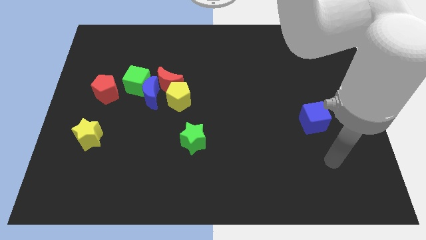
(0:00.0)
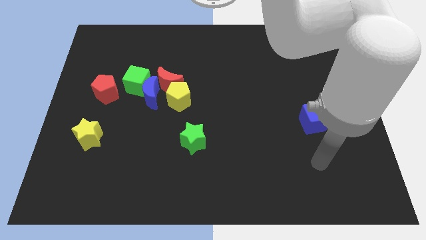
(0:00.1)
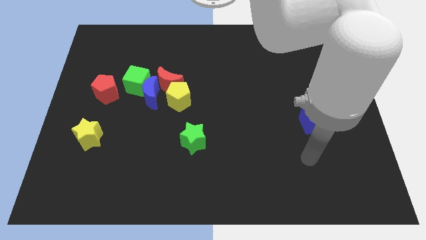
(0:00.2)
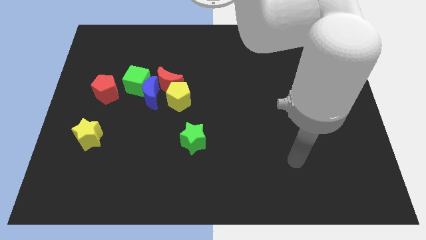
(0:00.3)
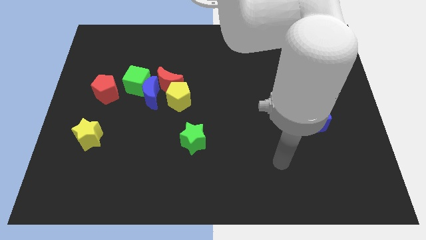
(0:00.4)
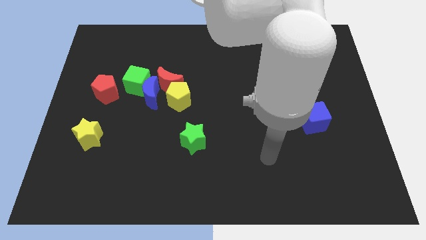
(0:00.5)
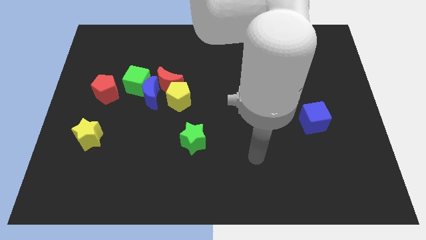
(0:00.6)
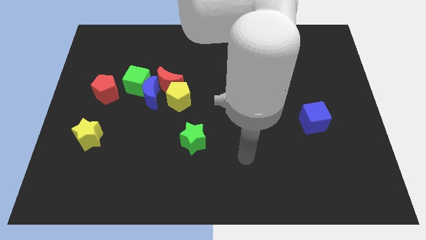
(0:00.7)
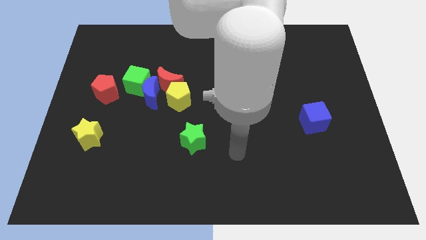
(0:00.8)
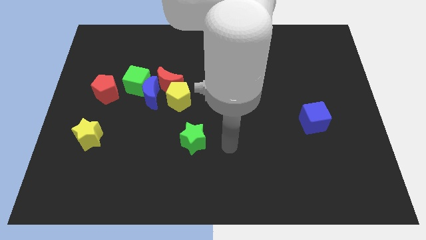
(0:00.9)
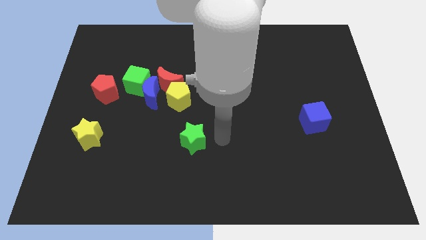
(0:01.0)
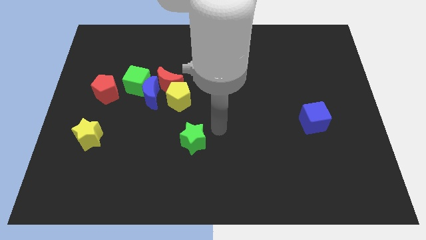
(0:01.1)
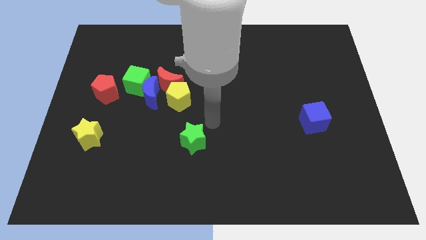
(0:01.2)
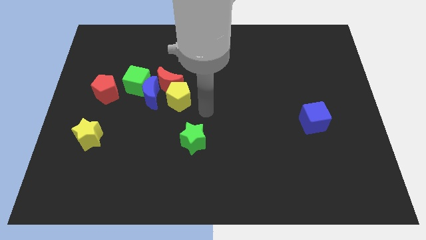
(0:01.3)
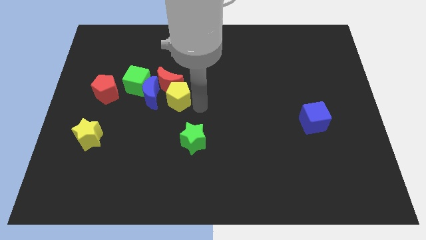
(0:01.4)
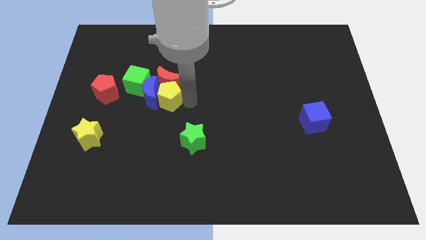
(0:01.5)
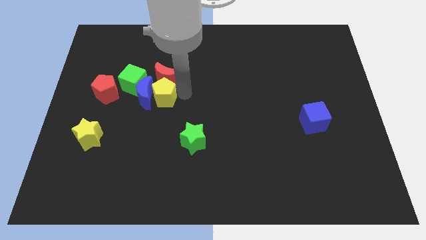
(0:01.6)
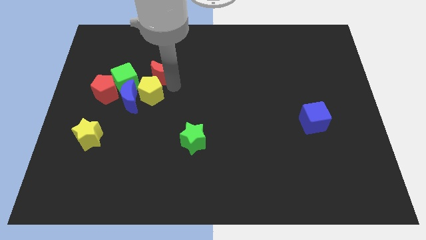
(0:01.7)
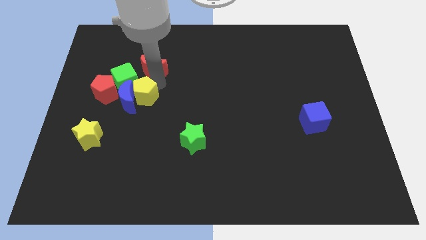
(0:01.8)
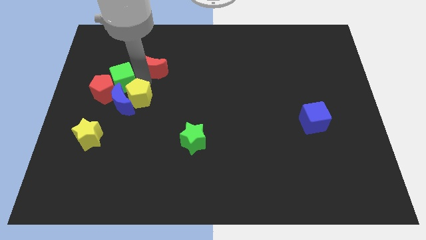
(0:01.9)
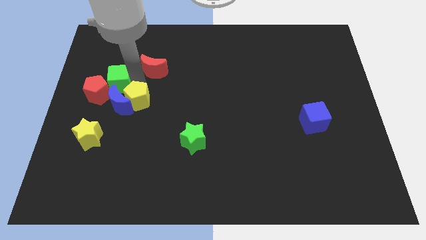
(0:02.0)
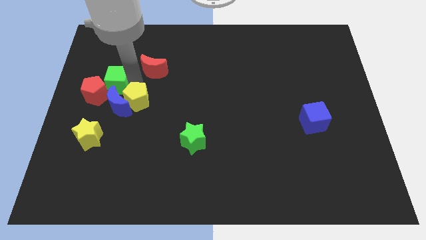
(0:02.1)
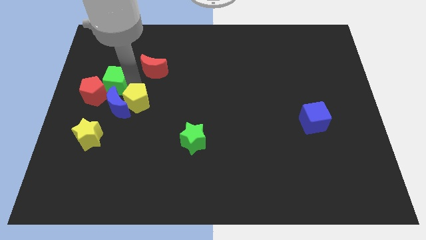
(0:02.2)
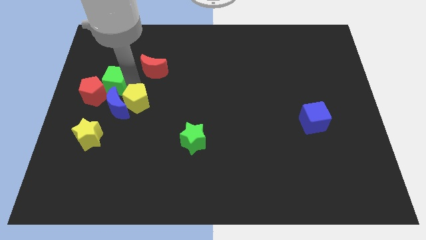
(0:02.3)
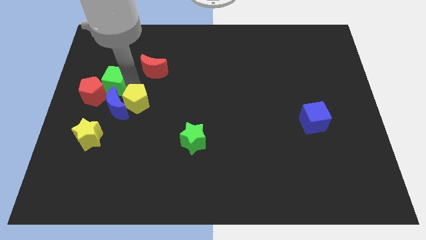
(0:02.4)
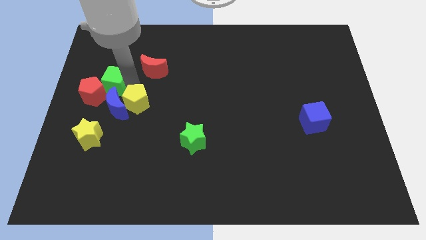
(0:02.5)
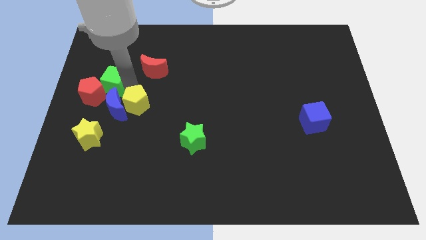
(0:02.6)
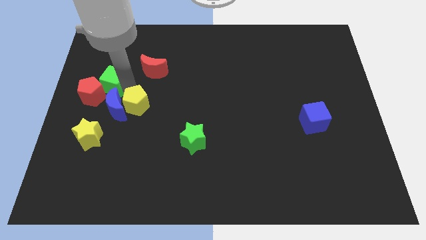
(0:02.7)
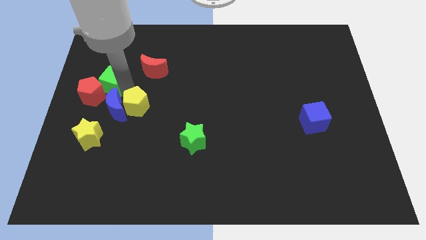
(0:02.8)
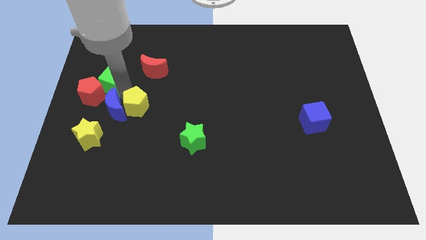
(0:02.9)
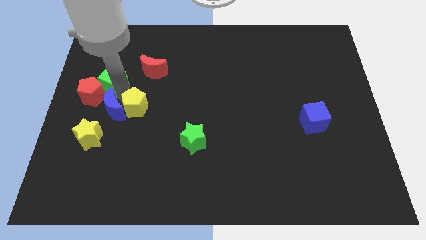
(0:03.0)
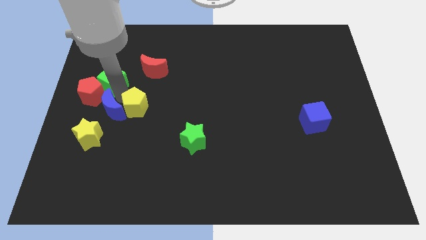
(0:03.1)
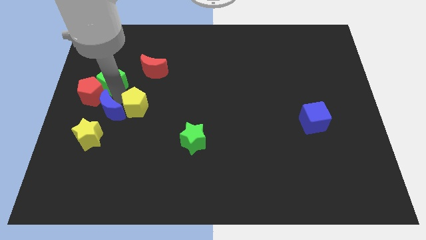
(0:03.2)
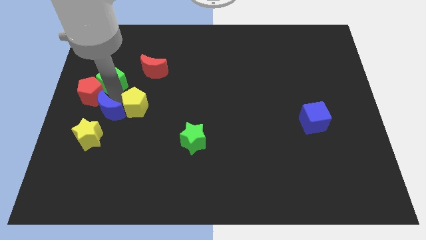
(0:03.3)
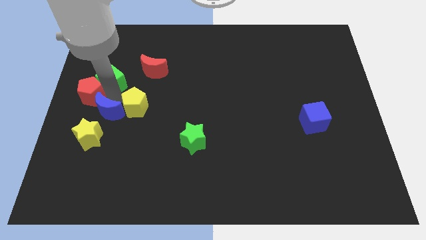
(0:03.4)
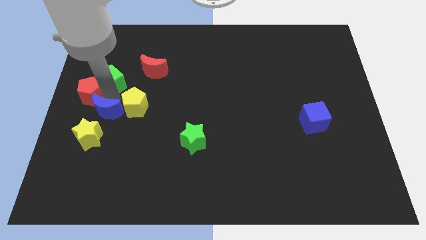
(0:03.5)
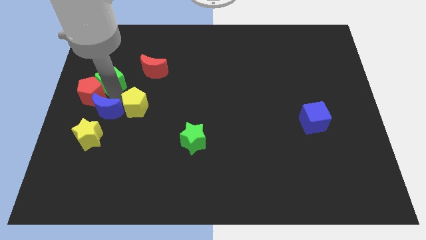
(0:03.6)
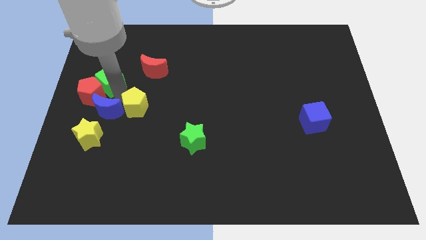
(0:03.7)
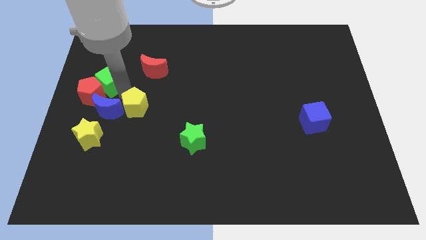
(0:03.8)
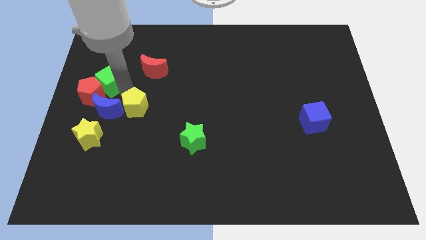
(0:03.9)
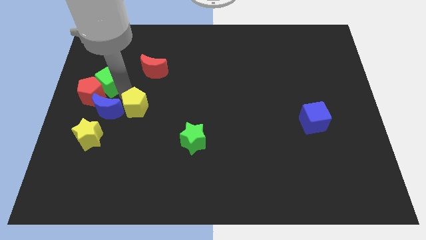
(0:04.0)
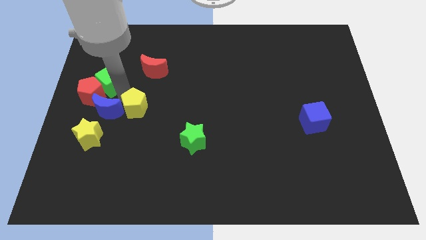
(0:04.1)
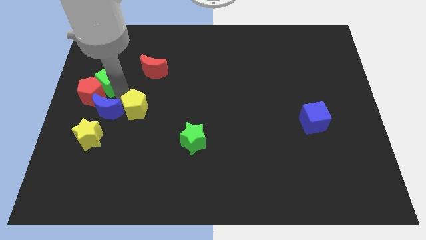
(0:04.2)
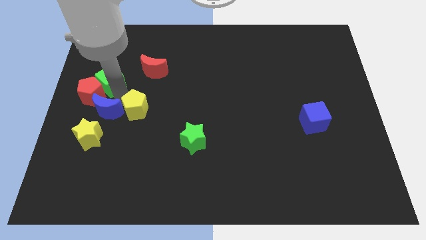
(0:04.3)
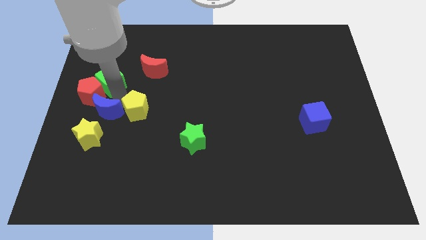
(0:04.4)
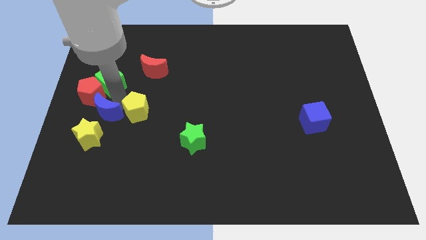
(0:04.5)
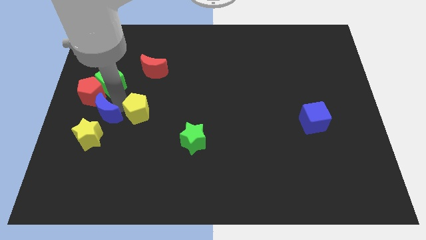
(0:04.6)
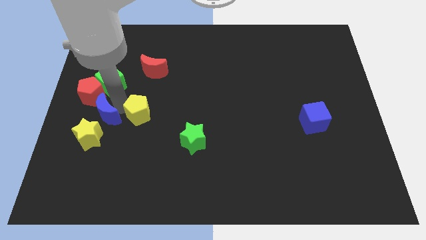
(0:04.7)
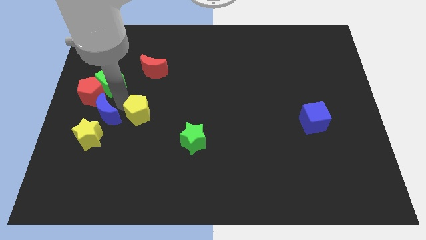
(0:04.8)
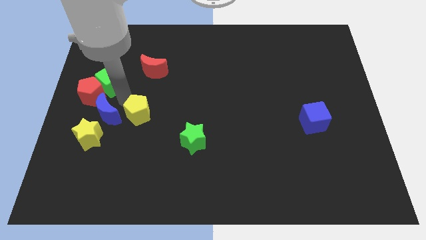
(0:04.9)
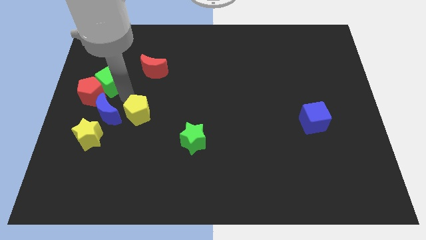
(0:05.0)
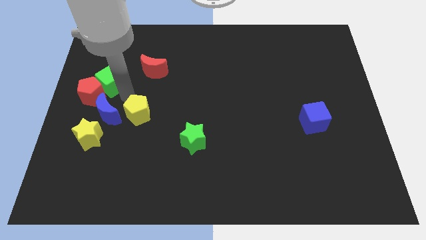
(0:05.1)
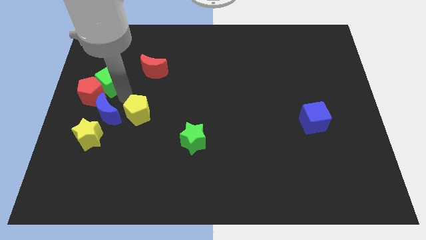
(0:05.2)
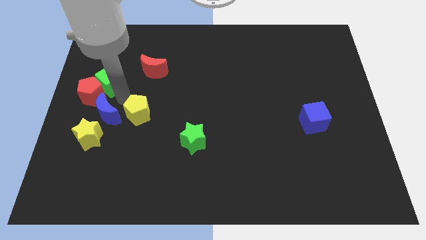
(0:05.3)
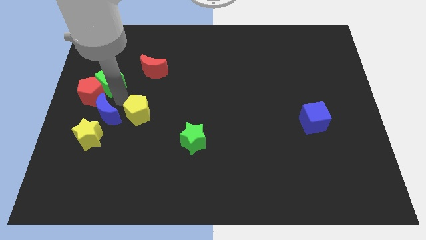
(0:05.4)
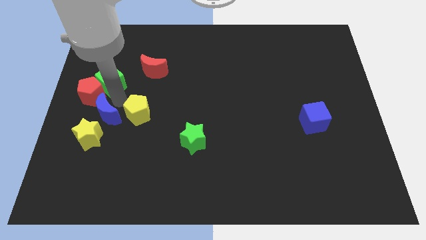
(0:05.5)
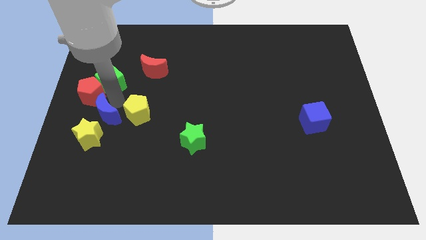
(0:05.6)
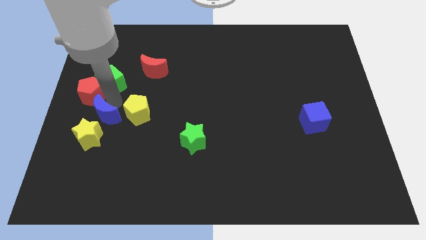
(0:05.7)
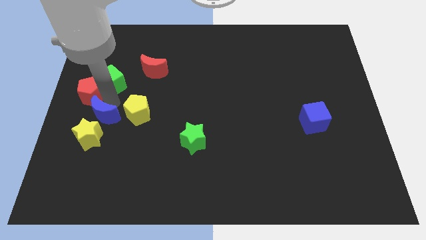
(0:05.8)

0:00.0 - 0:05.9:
move the blue moon away from the group

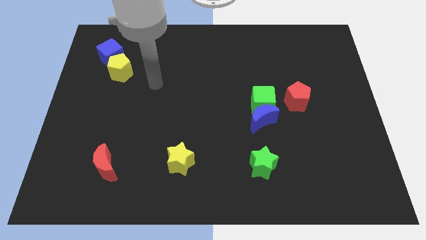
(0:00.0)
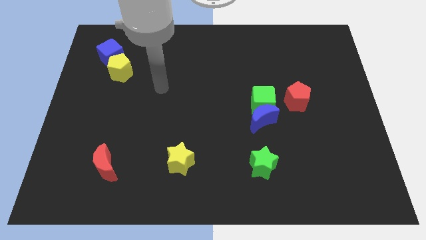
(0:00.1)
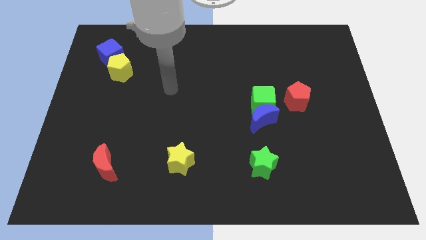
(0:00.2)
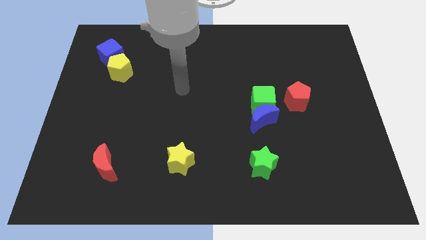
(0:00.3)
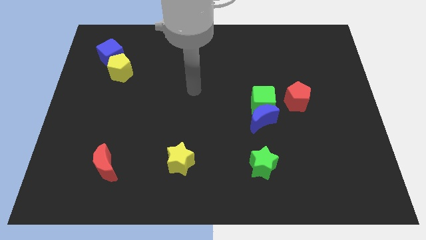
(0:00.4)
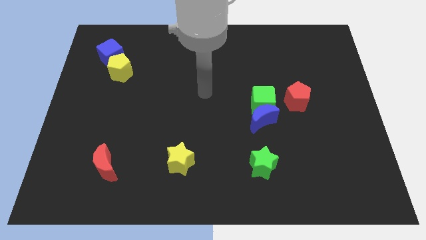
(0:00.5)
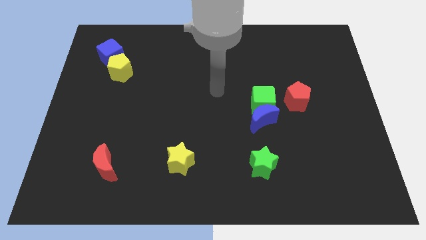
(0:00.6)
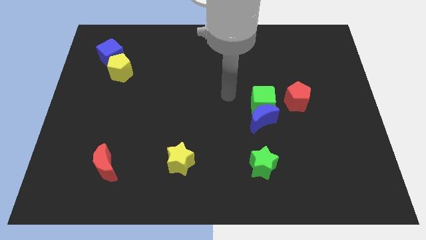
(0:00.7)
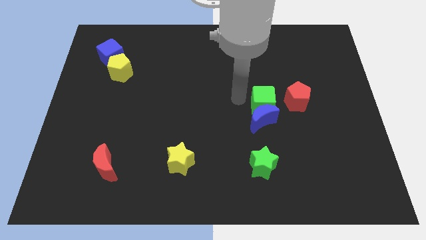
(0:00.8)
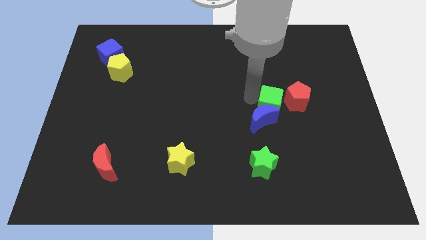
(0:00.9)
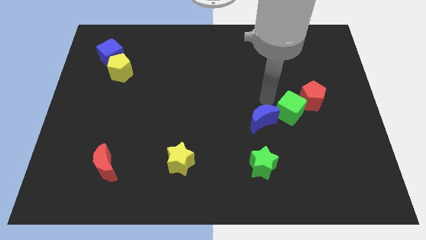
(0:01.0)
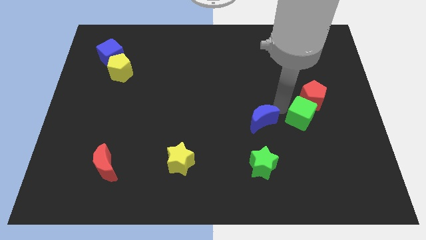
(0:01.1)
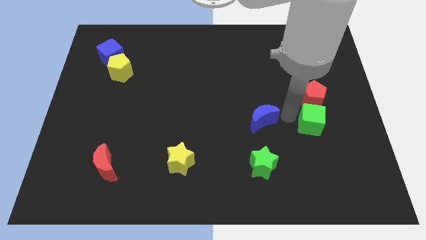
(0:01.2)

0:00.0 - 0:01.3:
pull the blue moon apart from the green cube

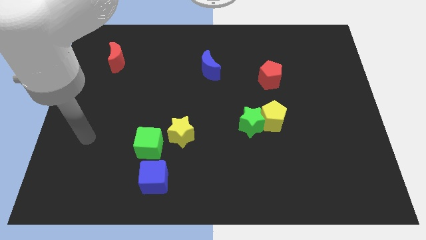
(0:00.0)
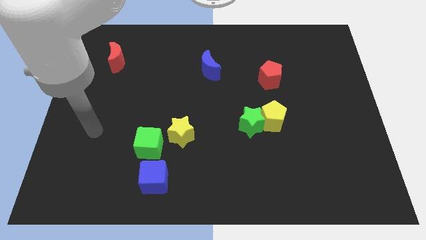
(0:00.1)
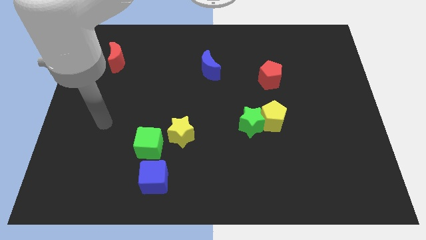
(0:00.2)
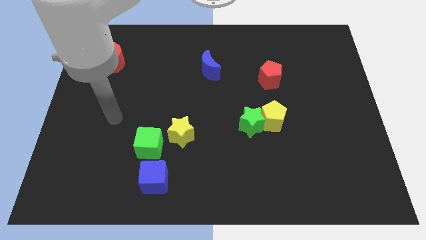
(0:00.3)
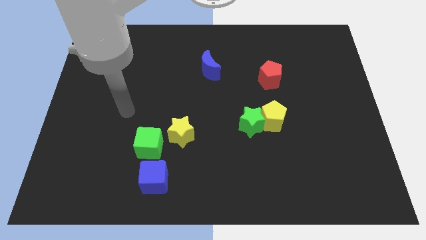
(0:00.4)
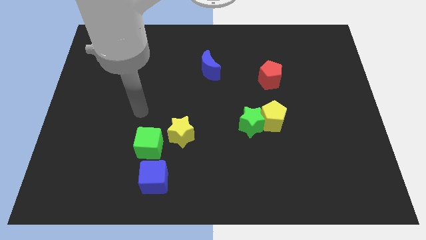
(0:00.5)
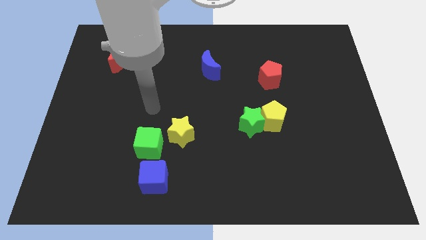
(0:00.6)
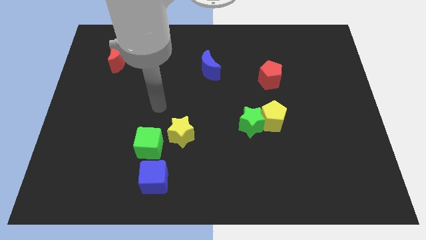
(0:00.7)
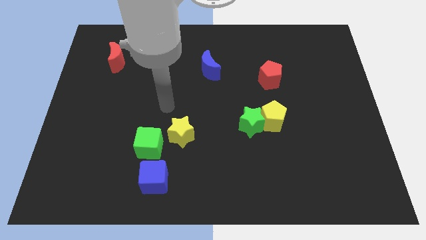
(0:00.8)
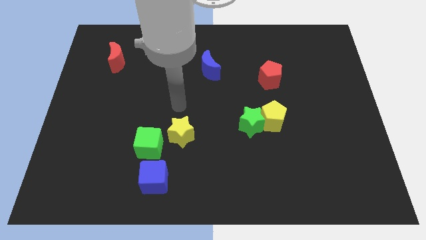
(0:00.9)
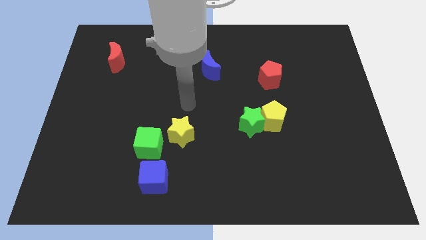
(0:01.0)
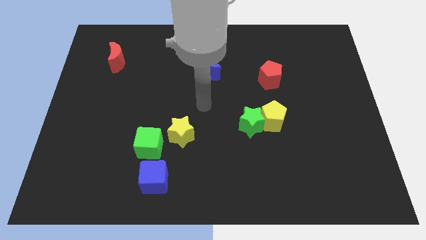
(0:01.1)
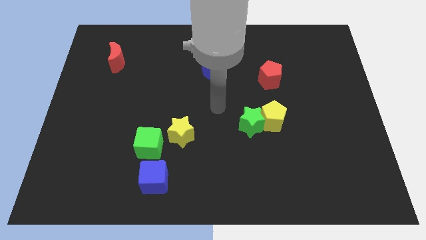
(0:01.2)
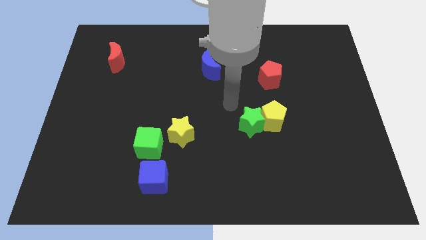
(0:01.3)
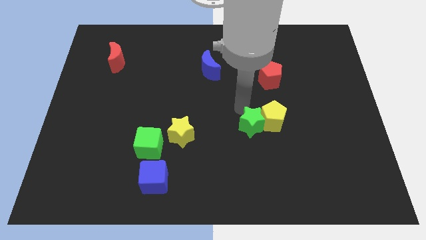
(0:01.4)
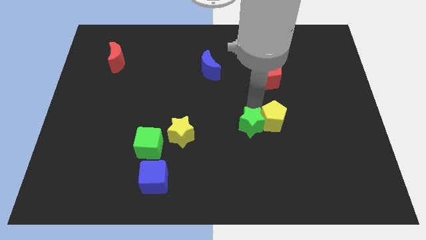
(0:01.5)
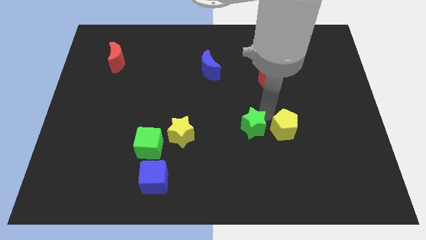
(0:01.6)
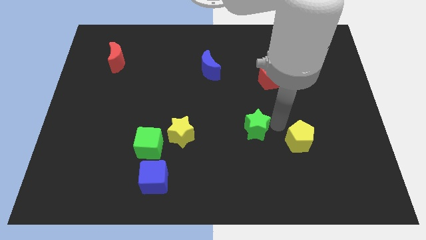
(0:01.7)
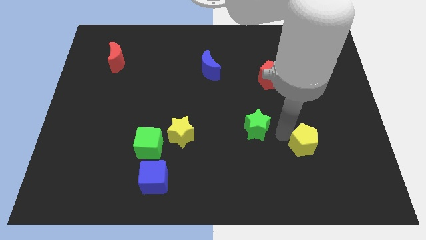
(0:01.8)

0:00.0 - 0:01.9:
move the green star away from the yellow pentagon

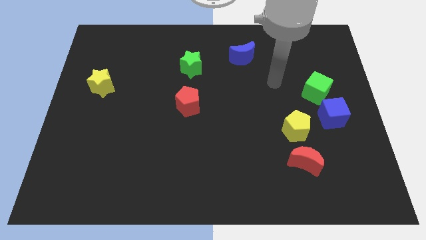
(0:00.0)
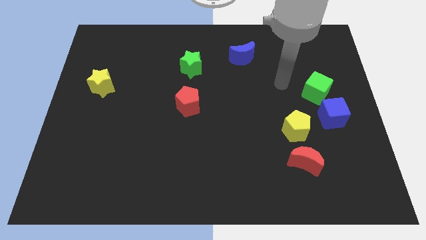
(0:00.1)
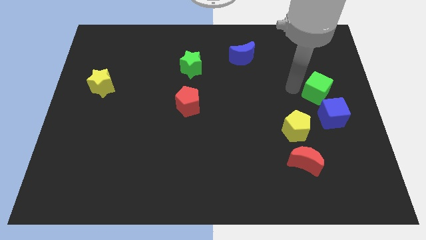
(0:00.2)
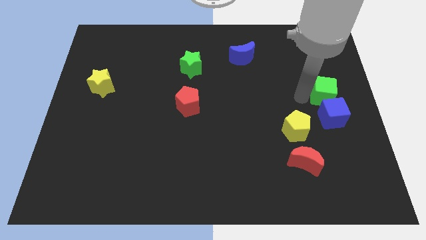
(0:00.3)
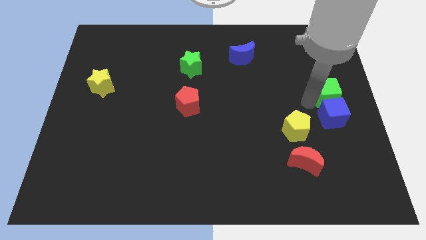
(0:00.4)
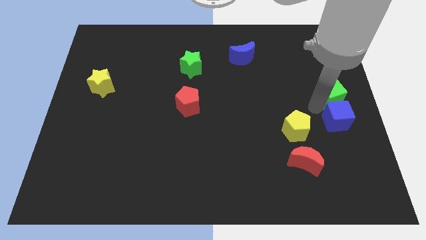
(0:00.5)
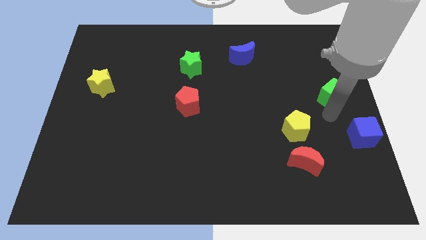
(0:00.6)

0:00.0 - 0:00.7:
separate the green cube from the blue cube
